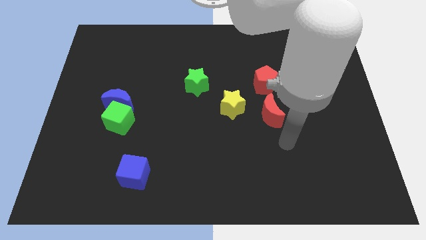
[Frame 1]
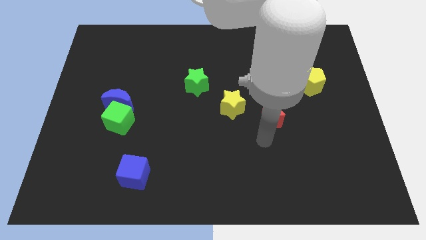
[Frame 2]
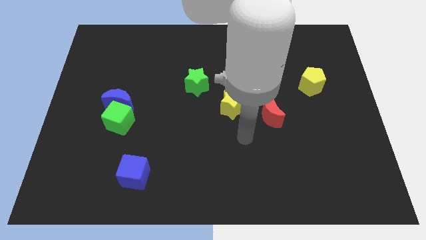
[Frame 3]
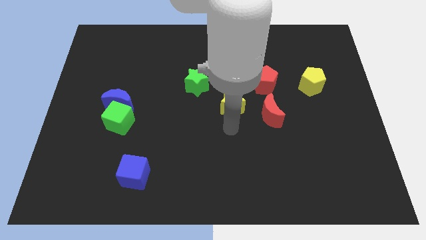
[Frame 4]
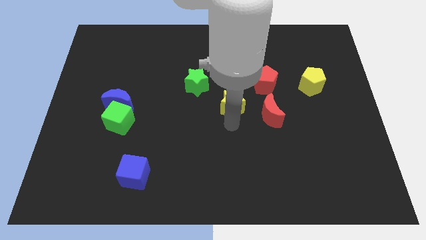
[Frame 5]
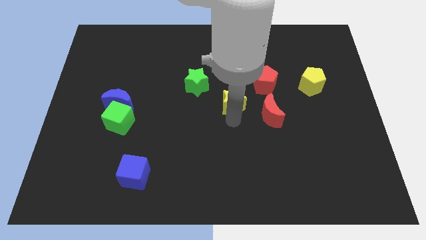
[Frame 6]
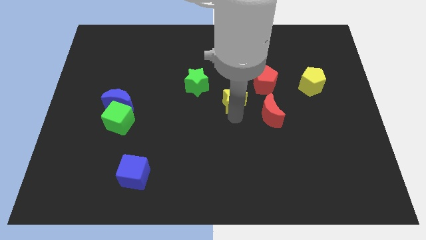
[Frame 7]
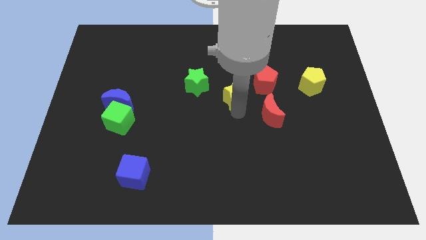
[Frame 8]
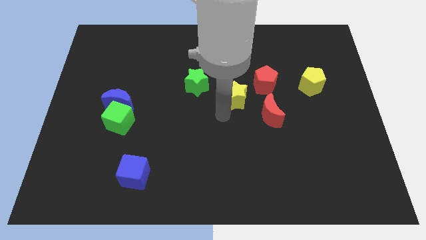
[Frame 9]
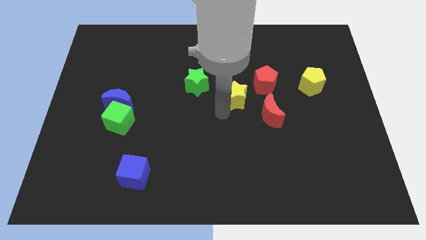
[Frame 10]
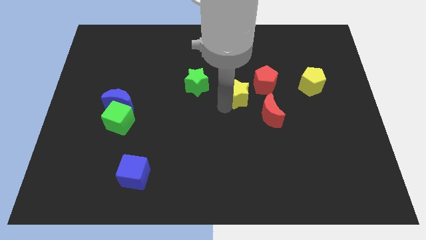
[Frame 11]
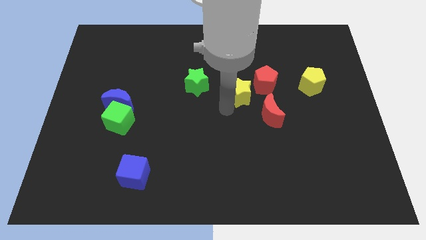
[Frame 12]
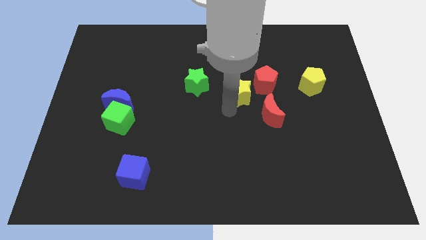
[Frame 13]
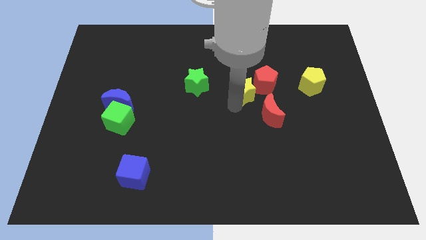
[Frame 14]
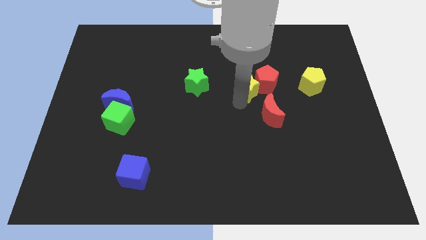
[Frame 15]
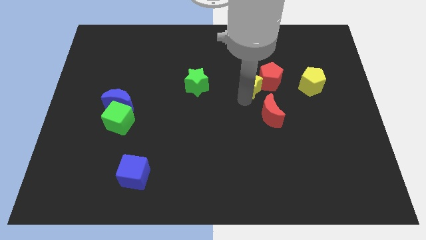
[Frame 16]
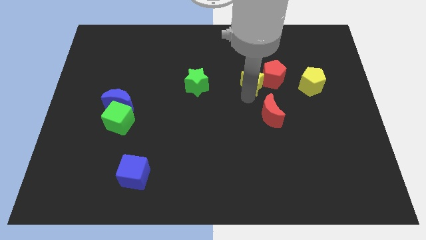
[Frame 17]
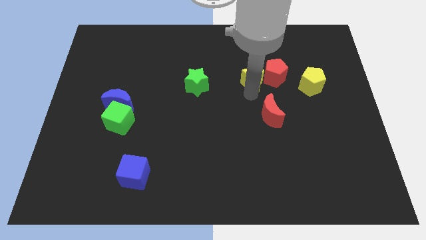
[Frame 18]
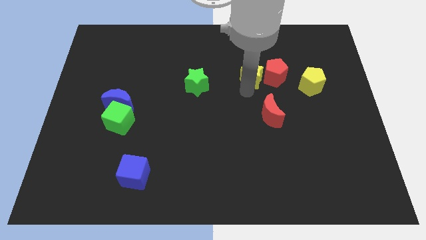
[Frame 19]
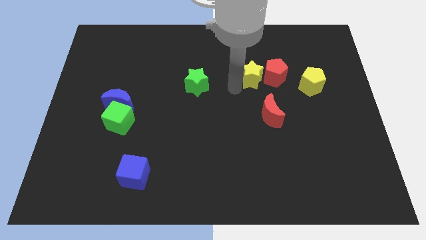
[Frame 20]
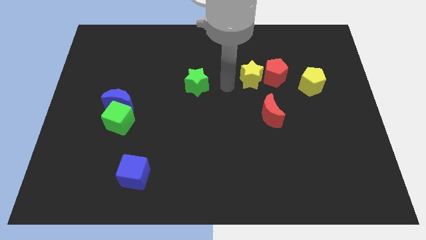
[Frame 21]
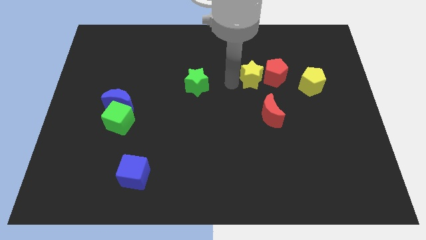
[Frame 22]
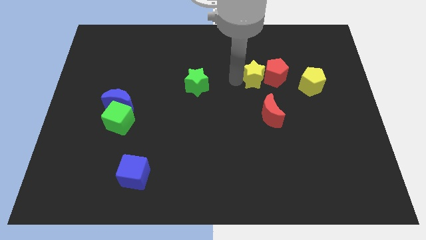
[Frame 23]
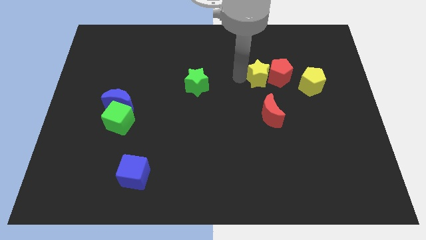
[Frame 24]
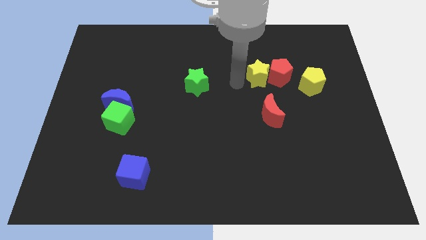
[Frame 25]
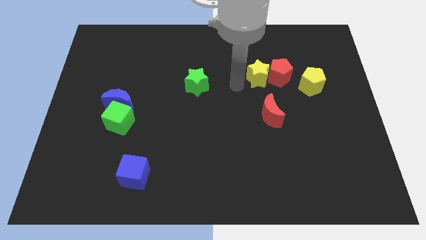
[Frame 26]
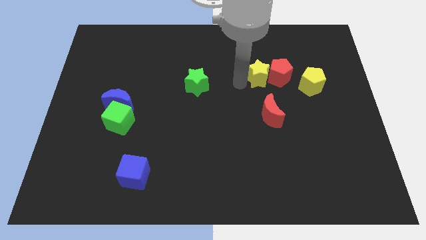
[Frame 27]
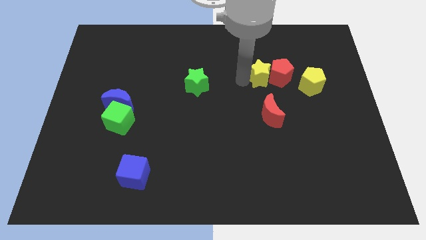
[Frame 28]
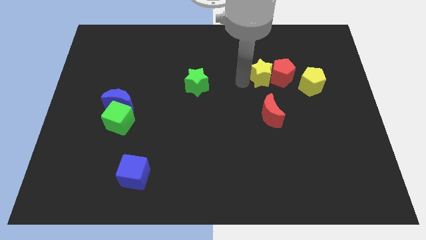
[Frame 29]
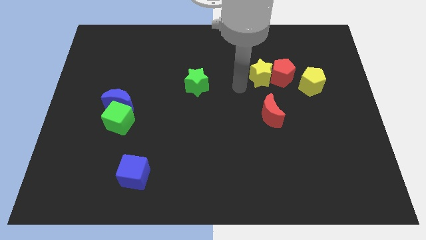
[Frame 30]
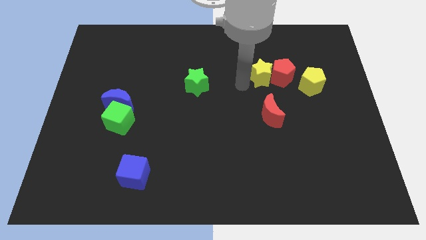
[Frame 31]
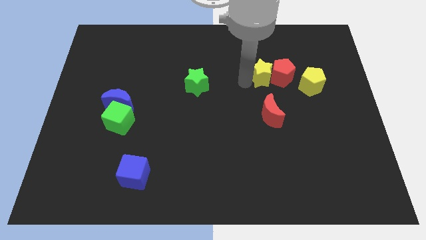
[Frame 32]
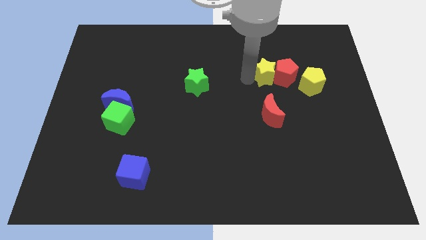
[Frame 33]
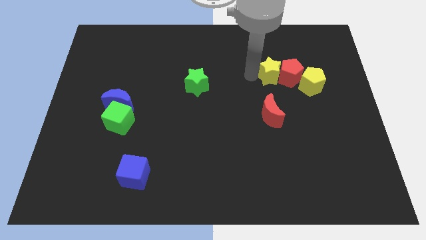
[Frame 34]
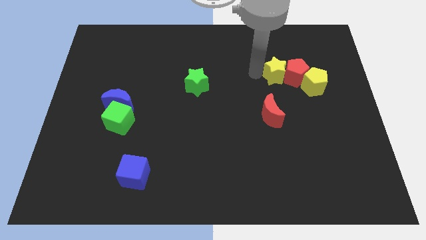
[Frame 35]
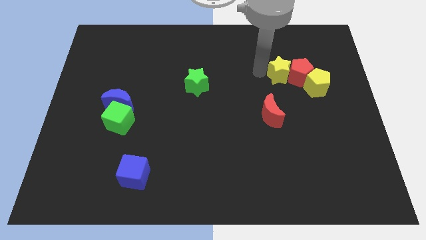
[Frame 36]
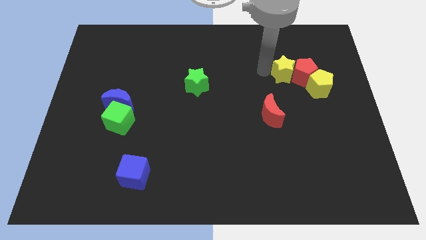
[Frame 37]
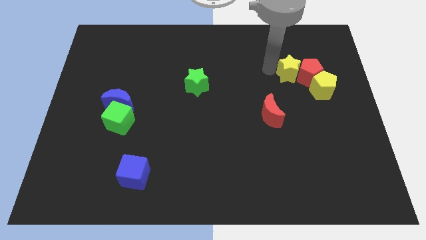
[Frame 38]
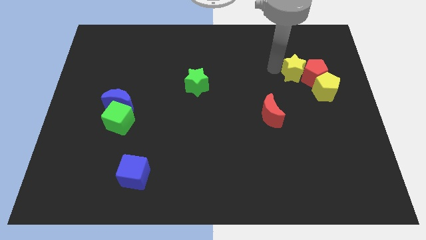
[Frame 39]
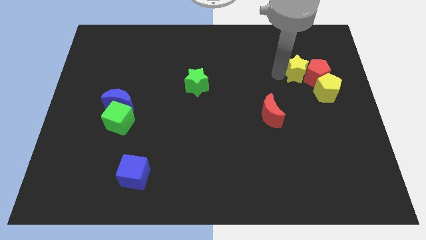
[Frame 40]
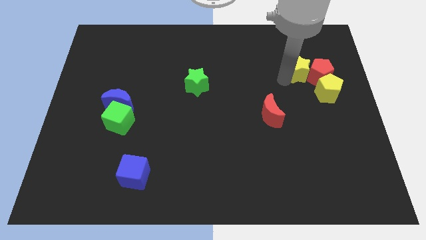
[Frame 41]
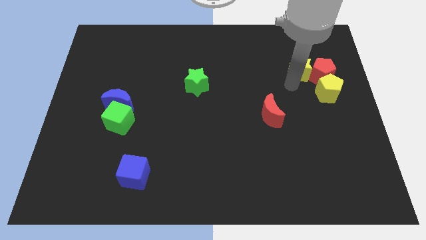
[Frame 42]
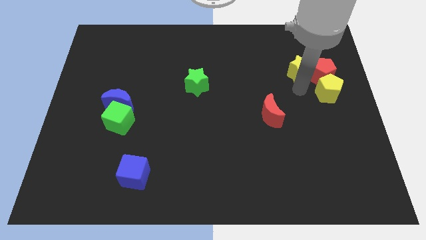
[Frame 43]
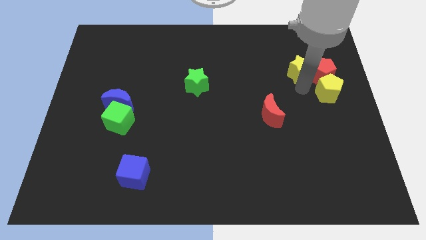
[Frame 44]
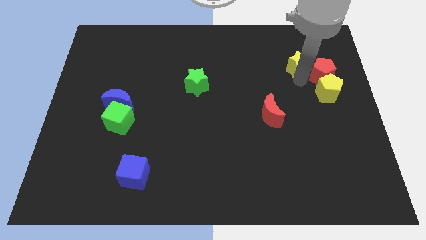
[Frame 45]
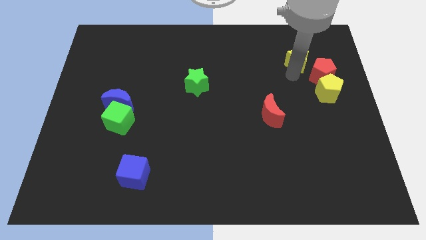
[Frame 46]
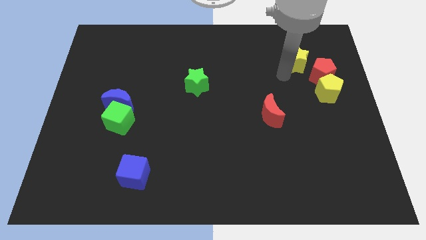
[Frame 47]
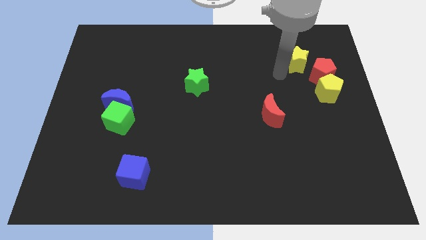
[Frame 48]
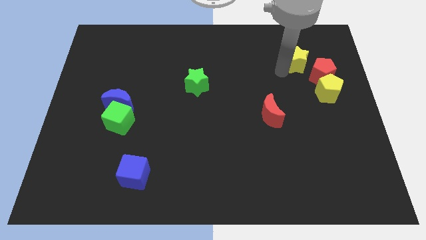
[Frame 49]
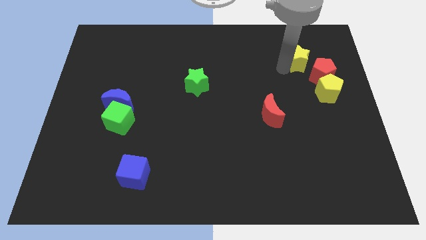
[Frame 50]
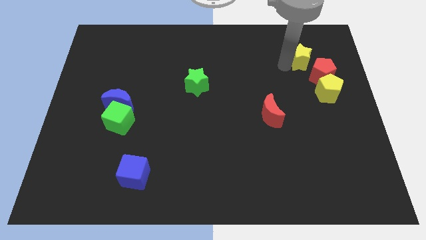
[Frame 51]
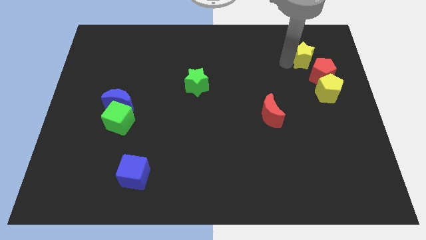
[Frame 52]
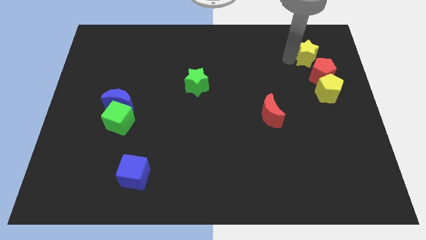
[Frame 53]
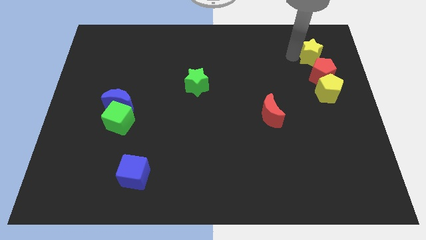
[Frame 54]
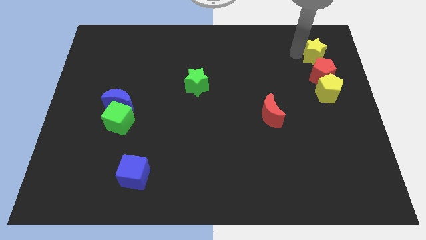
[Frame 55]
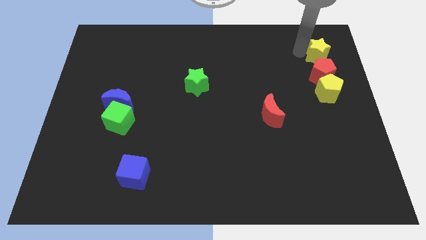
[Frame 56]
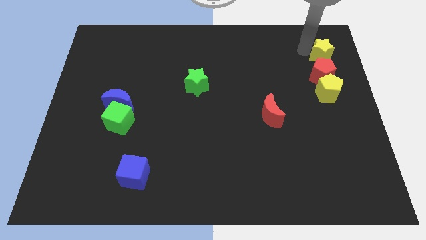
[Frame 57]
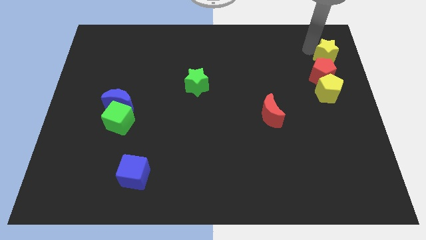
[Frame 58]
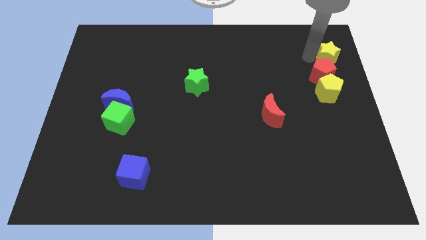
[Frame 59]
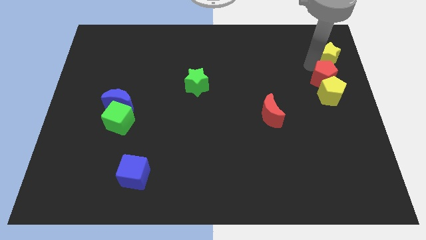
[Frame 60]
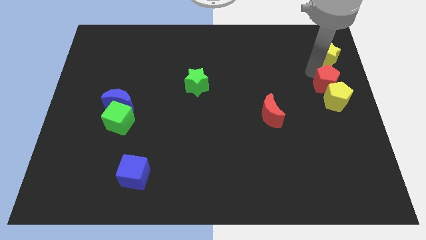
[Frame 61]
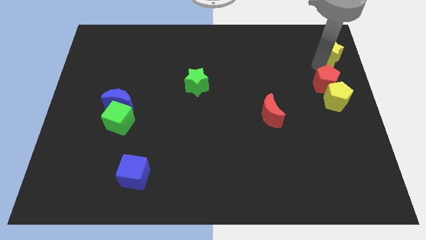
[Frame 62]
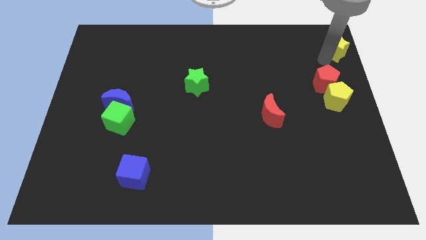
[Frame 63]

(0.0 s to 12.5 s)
move the yellow star to the upper right corner

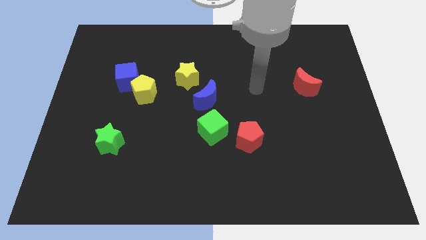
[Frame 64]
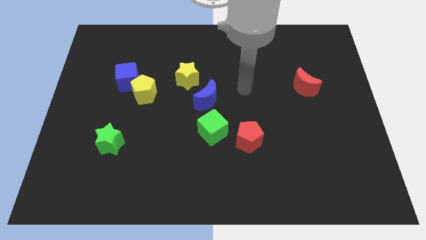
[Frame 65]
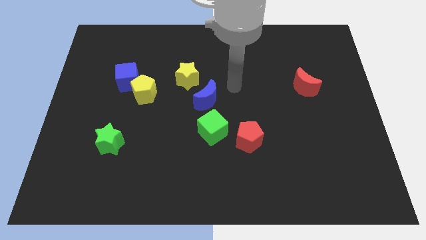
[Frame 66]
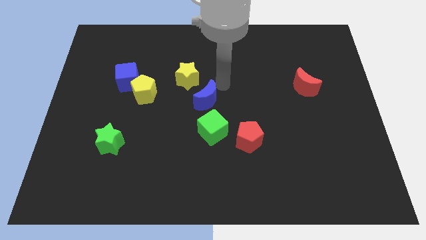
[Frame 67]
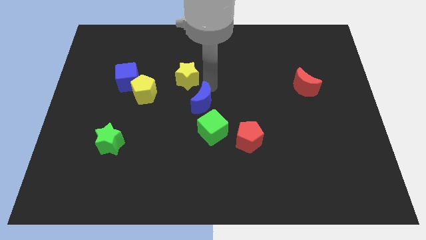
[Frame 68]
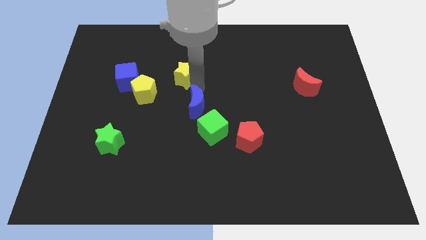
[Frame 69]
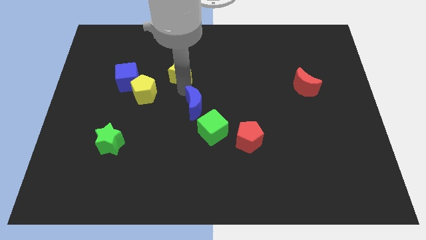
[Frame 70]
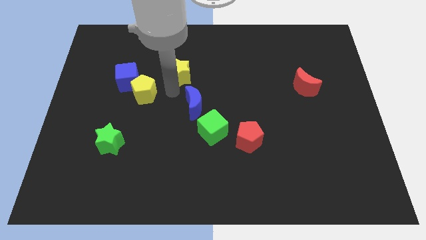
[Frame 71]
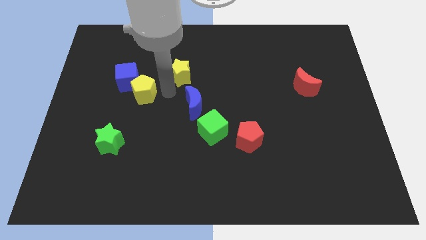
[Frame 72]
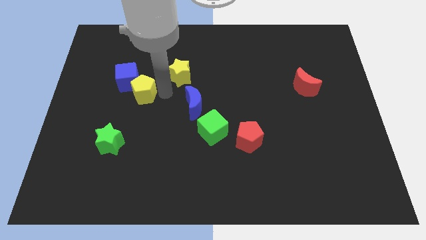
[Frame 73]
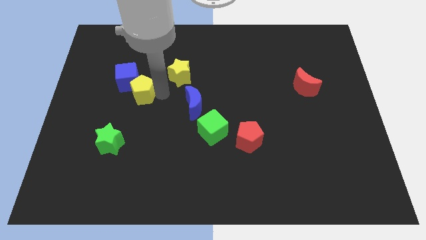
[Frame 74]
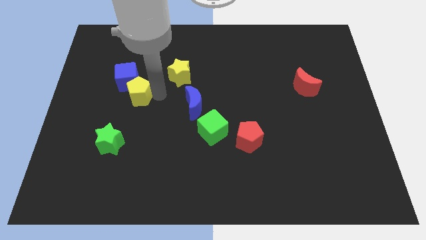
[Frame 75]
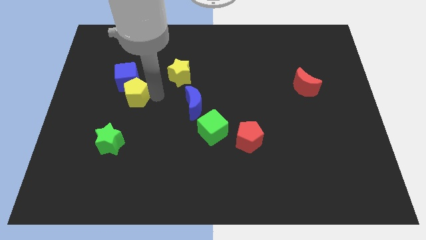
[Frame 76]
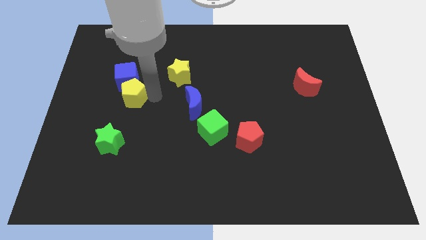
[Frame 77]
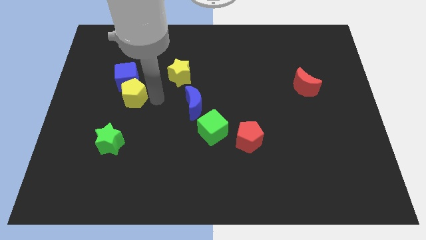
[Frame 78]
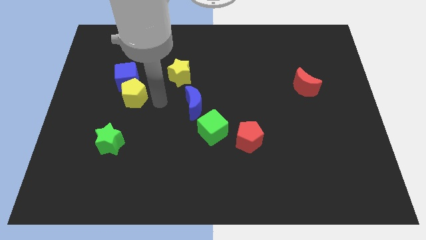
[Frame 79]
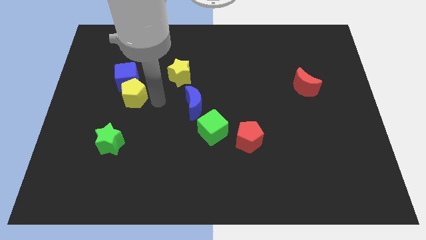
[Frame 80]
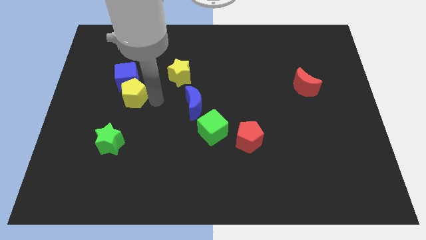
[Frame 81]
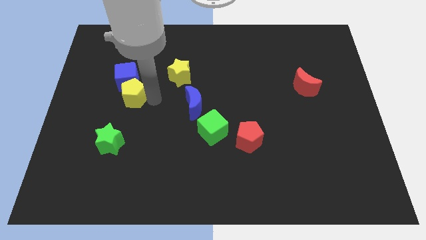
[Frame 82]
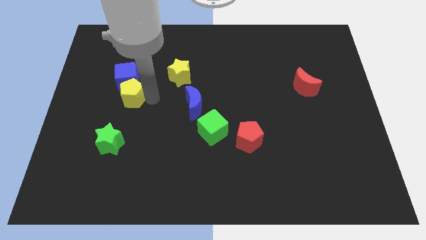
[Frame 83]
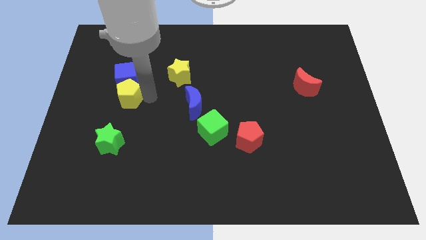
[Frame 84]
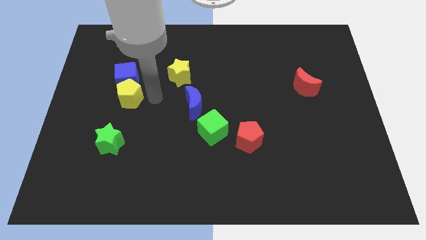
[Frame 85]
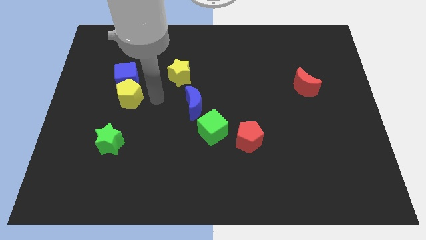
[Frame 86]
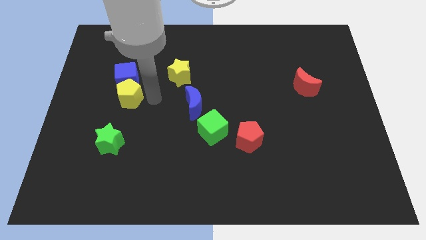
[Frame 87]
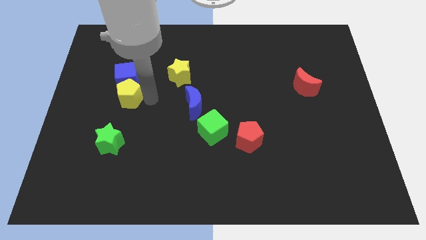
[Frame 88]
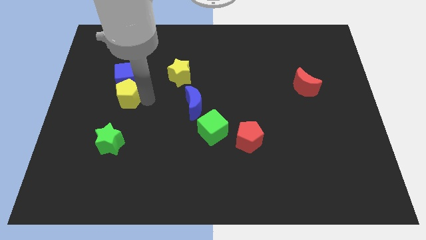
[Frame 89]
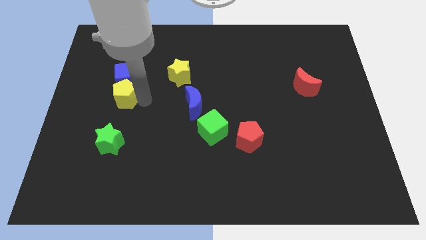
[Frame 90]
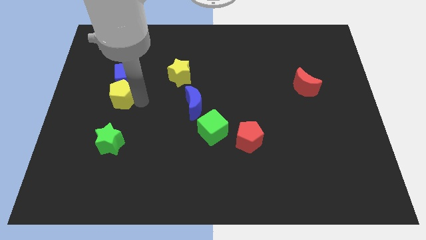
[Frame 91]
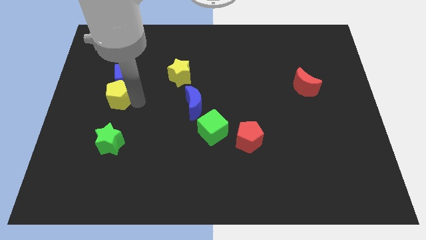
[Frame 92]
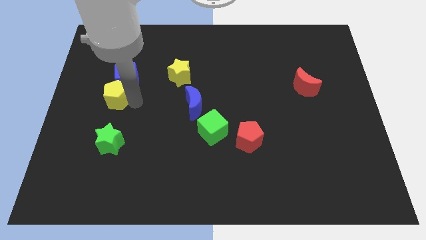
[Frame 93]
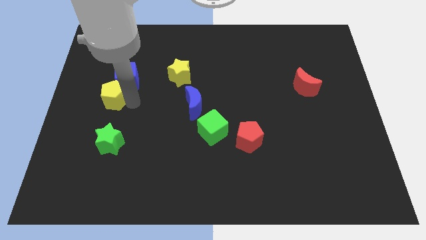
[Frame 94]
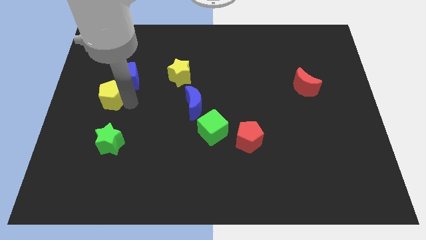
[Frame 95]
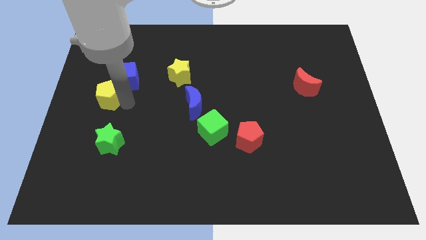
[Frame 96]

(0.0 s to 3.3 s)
move the yellow pentagon to the left side of the board
